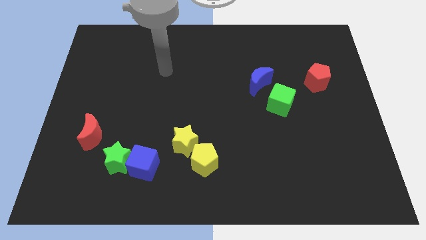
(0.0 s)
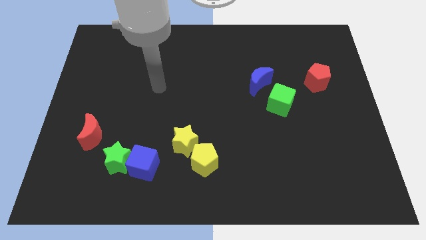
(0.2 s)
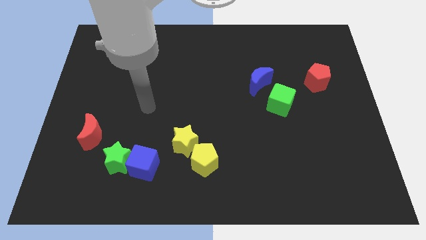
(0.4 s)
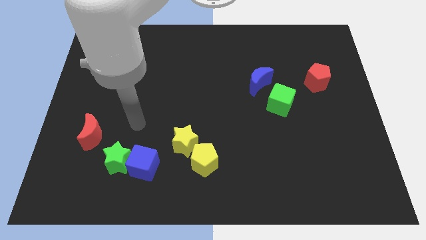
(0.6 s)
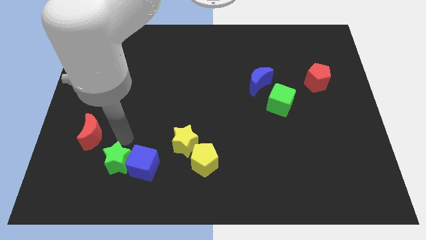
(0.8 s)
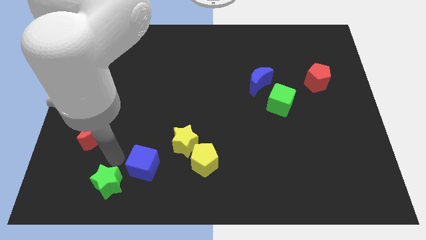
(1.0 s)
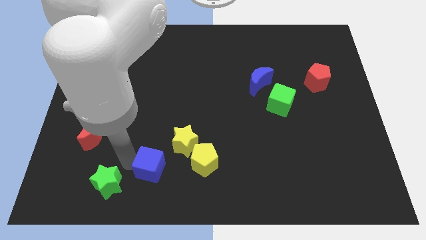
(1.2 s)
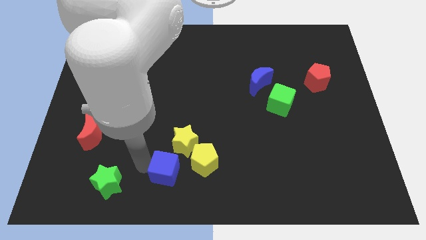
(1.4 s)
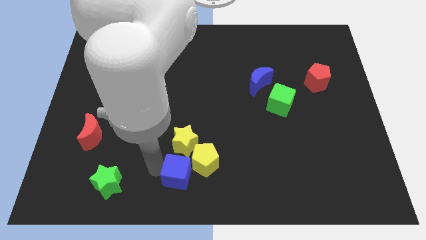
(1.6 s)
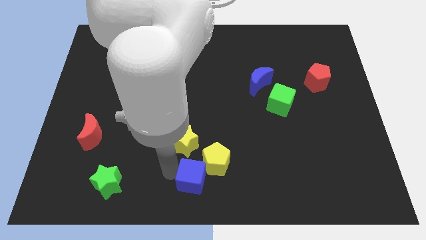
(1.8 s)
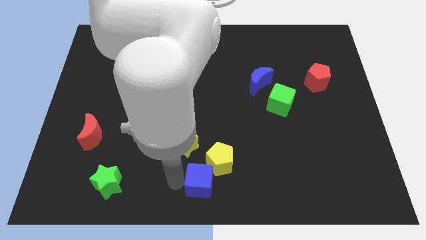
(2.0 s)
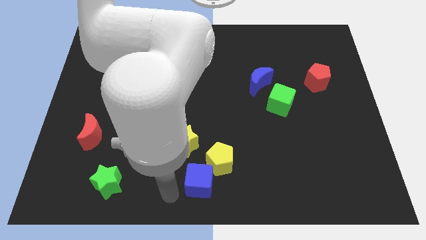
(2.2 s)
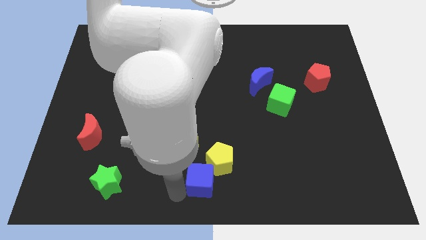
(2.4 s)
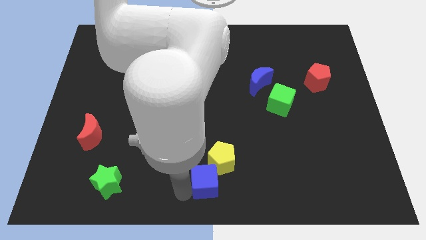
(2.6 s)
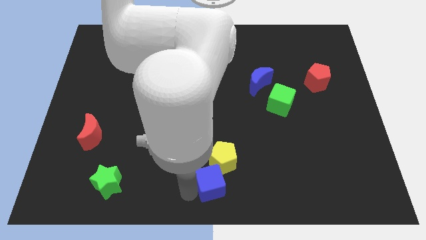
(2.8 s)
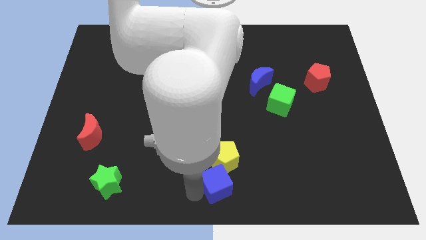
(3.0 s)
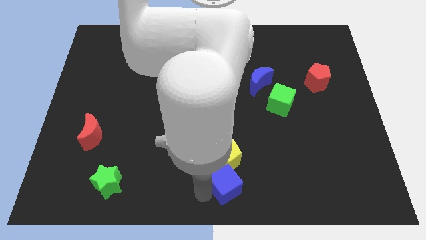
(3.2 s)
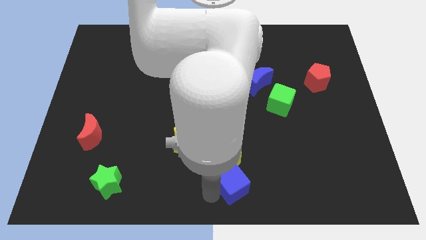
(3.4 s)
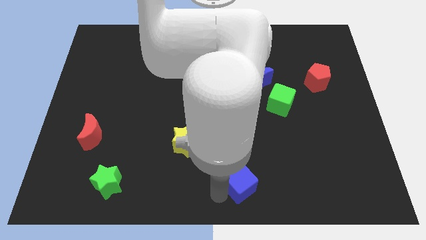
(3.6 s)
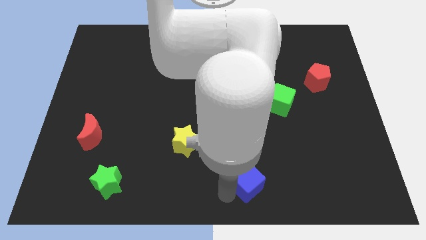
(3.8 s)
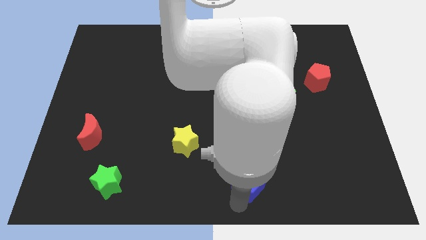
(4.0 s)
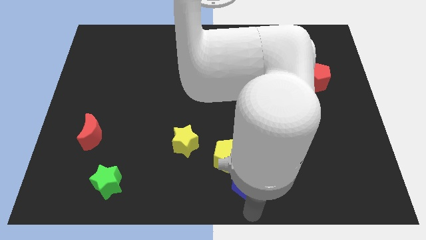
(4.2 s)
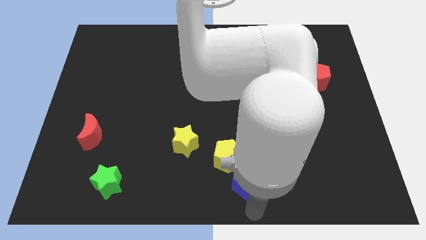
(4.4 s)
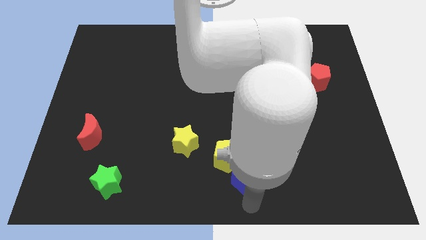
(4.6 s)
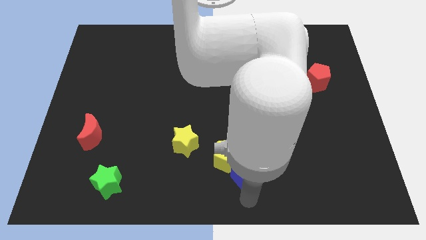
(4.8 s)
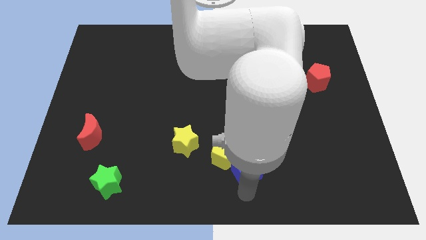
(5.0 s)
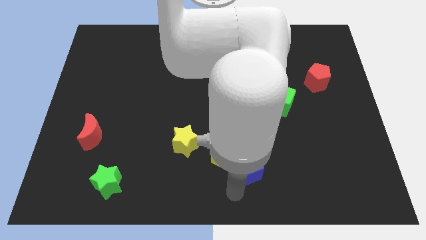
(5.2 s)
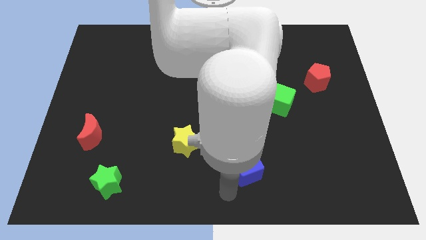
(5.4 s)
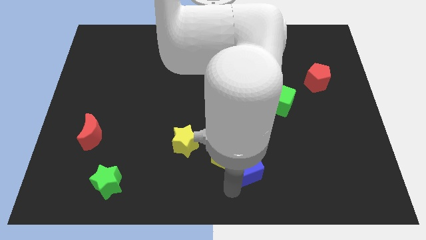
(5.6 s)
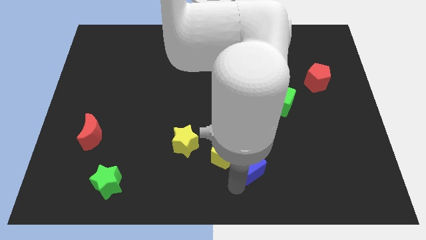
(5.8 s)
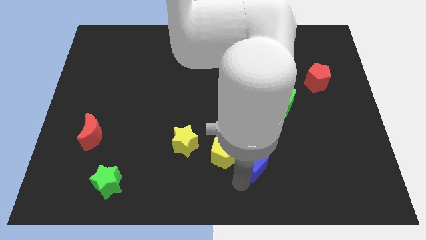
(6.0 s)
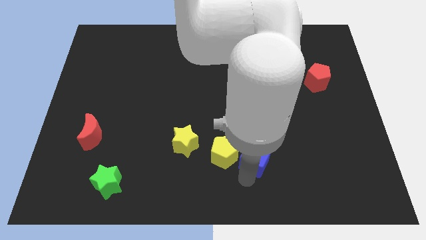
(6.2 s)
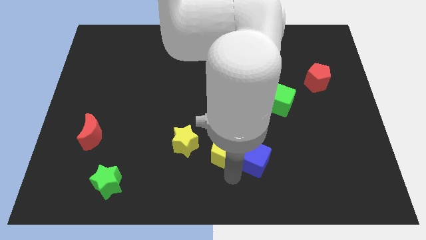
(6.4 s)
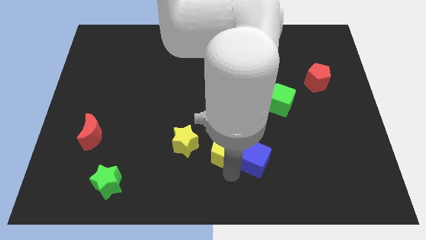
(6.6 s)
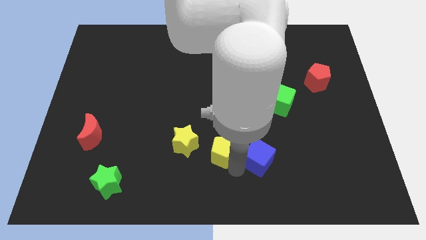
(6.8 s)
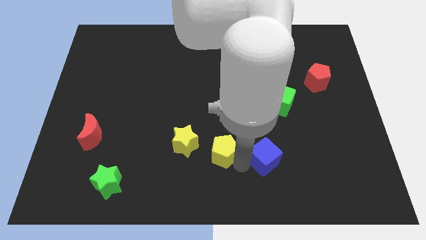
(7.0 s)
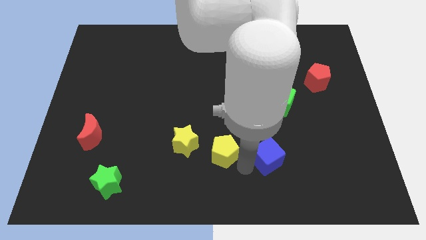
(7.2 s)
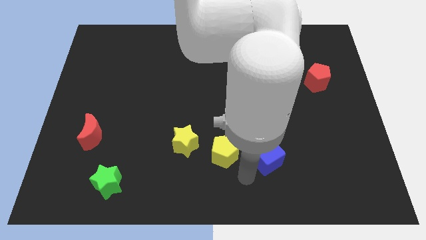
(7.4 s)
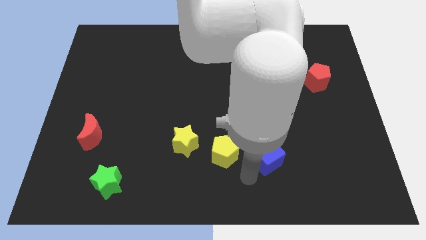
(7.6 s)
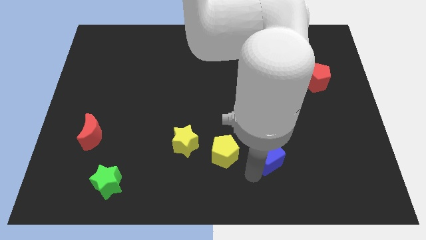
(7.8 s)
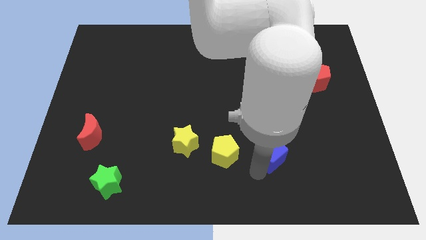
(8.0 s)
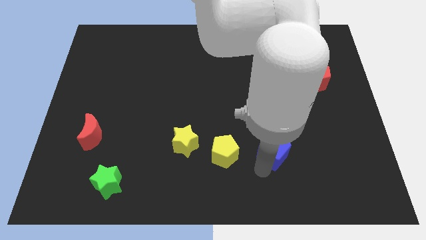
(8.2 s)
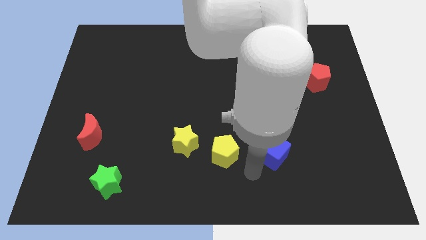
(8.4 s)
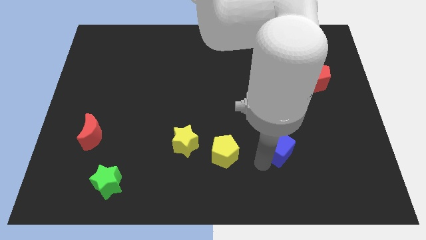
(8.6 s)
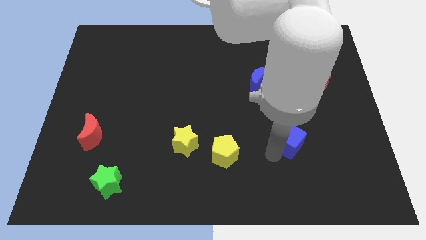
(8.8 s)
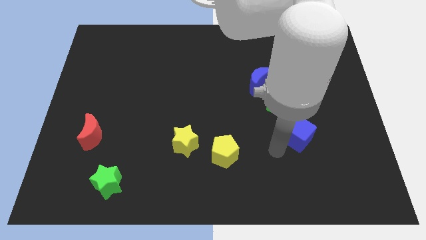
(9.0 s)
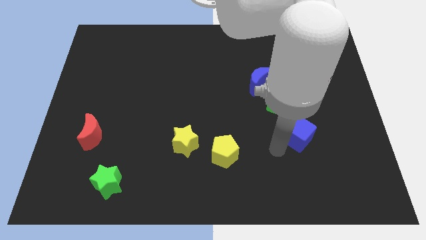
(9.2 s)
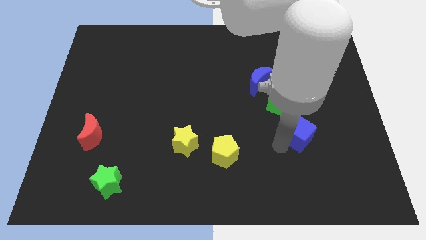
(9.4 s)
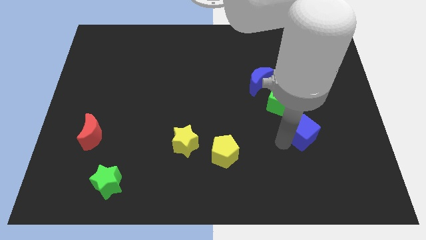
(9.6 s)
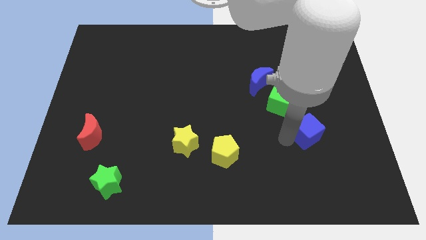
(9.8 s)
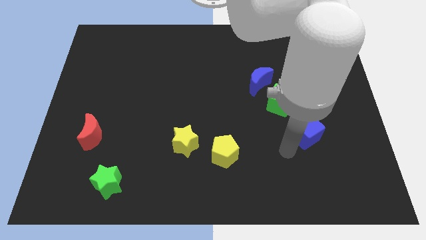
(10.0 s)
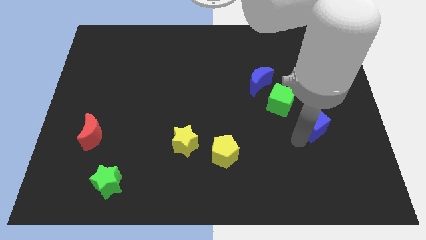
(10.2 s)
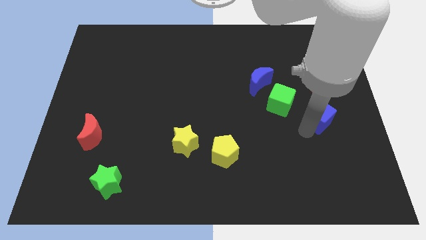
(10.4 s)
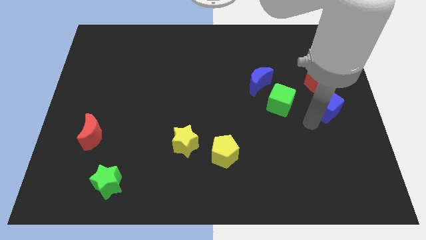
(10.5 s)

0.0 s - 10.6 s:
move the blue cube to the right side
